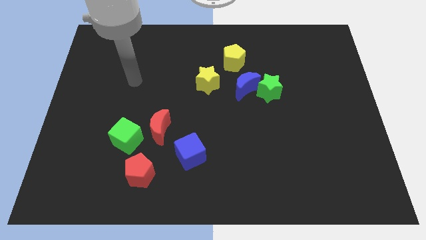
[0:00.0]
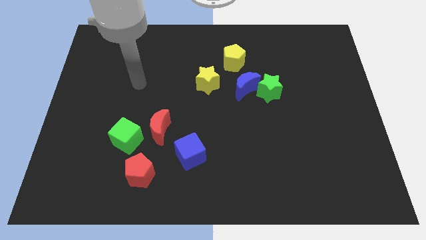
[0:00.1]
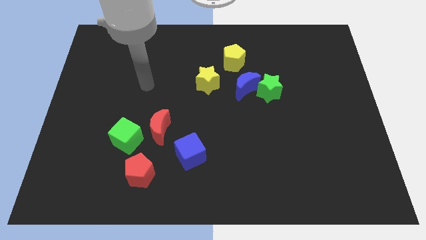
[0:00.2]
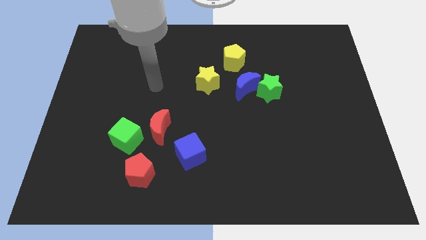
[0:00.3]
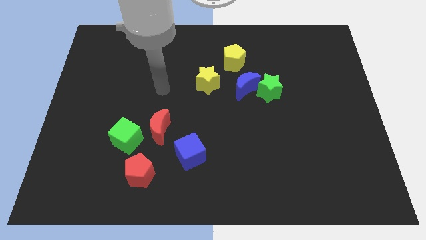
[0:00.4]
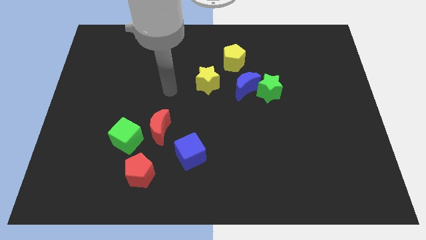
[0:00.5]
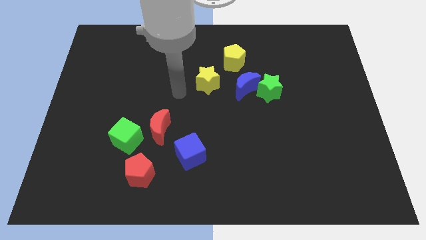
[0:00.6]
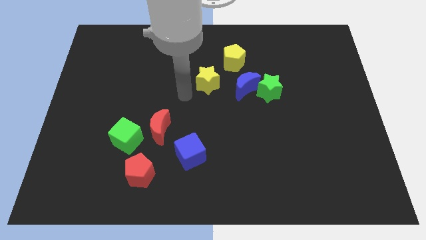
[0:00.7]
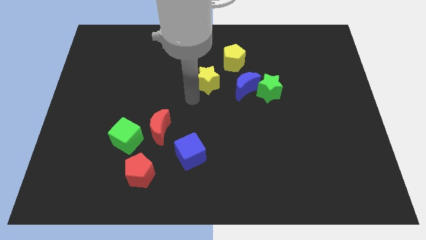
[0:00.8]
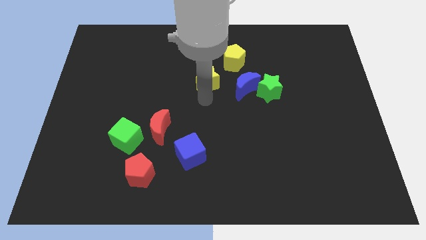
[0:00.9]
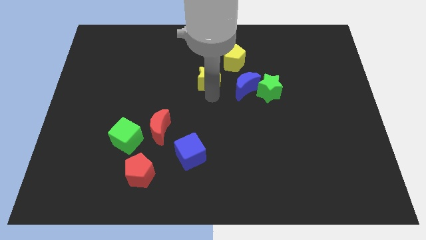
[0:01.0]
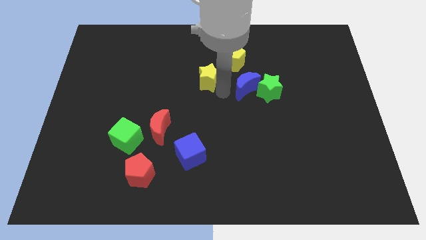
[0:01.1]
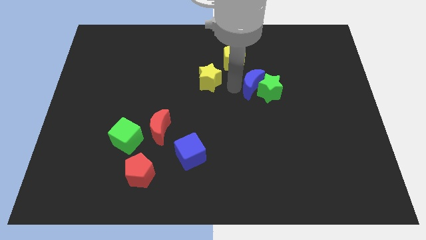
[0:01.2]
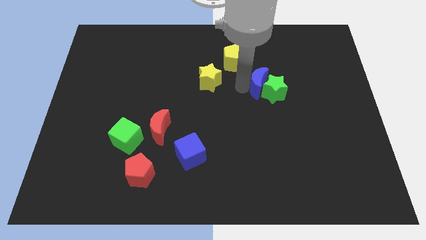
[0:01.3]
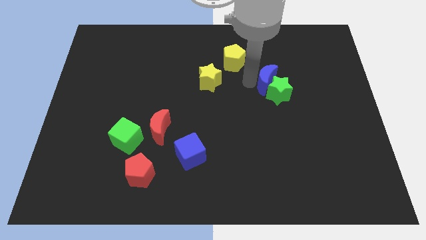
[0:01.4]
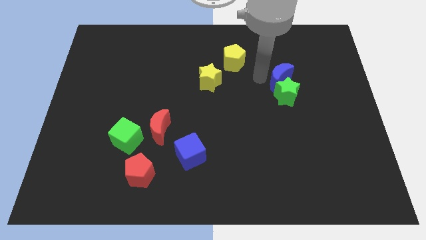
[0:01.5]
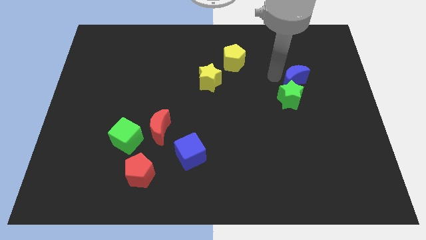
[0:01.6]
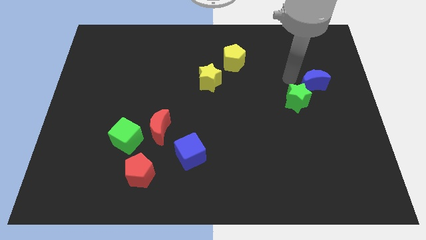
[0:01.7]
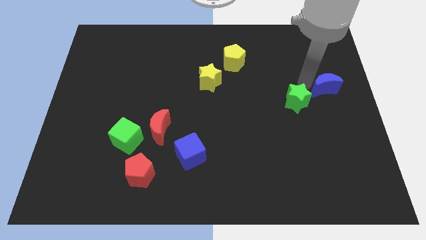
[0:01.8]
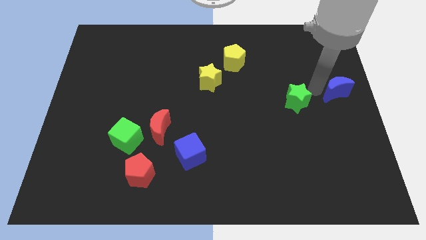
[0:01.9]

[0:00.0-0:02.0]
separate the green star from the blue moon

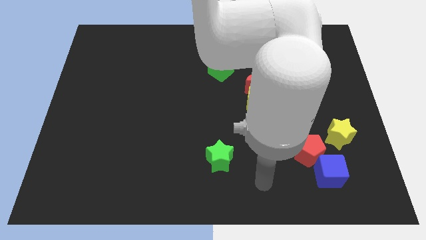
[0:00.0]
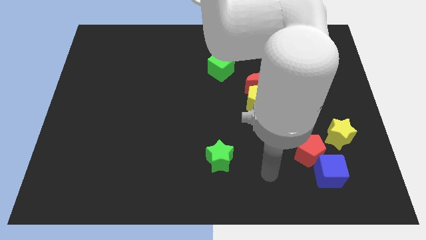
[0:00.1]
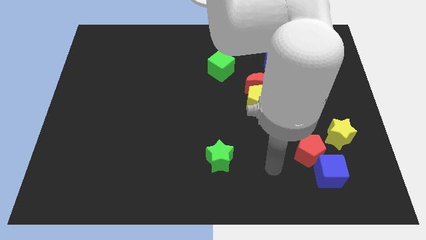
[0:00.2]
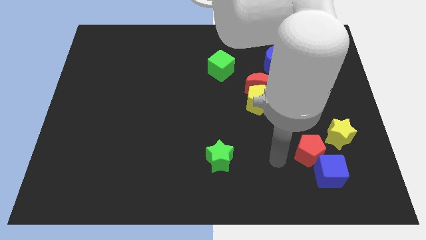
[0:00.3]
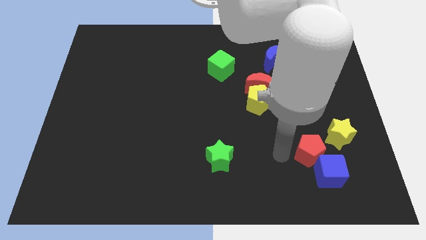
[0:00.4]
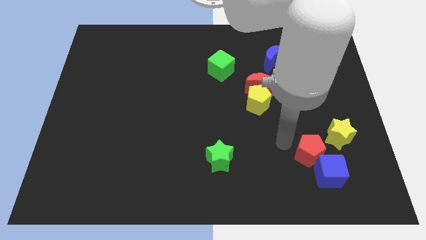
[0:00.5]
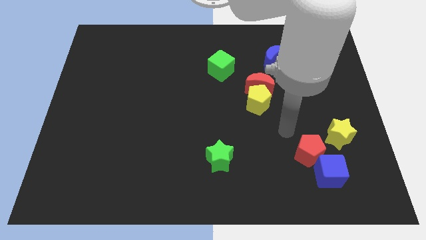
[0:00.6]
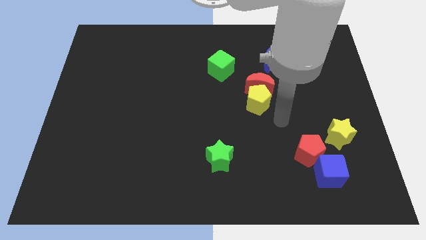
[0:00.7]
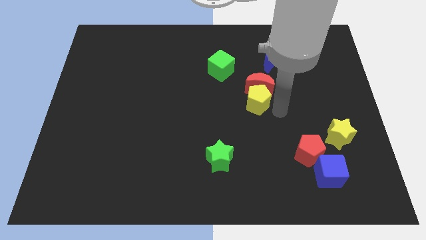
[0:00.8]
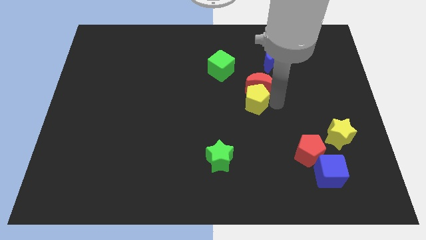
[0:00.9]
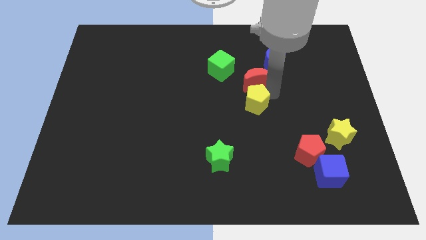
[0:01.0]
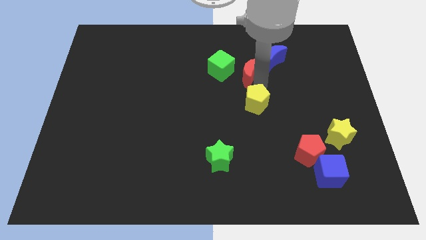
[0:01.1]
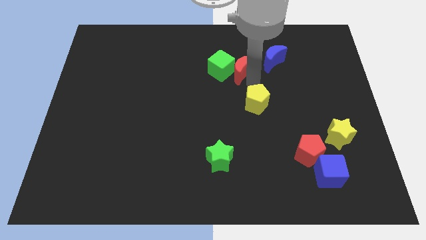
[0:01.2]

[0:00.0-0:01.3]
pull the yellow pentagon apart from the red moon

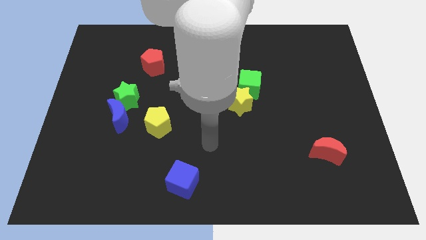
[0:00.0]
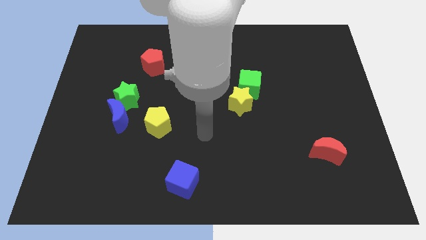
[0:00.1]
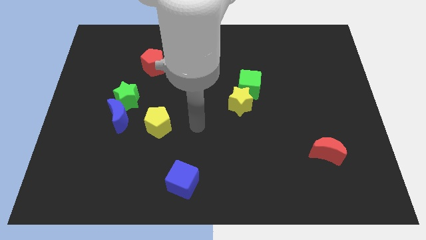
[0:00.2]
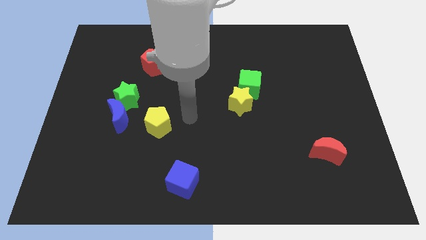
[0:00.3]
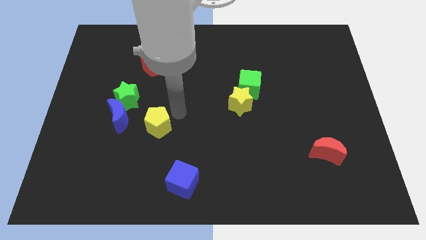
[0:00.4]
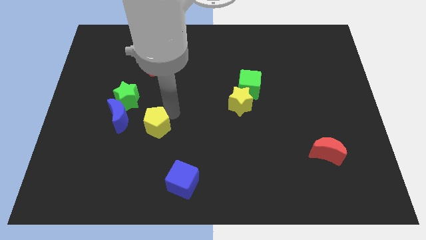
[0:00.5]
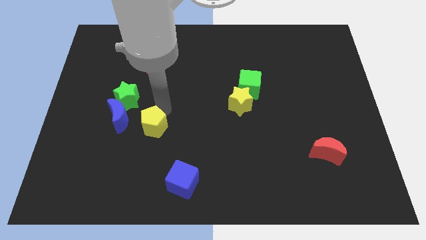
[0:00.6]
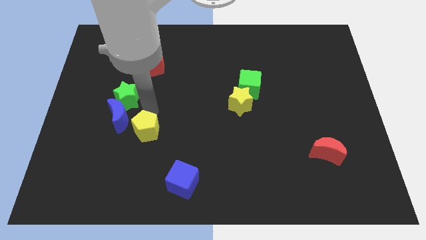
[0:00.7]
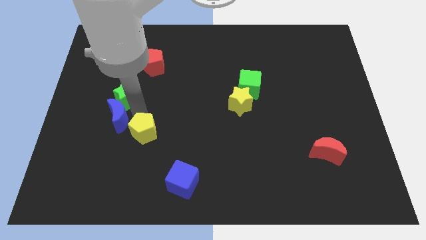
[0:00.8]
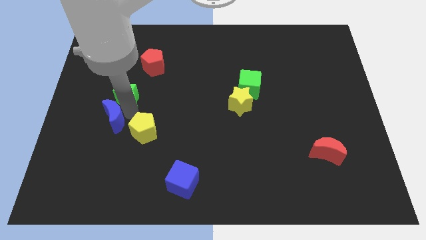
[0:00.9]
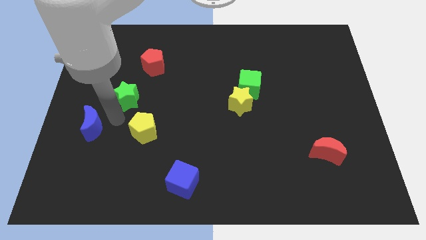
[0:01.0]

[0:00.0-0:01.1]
pull the green star apart from the blue moon

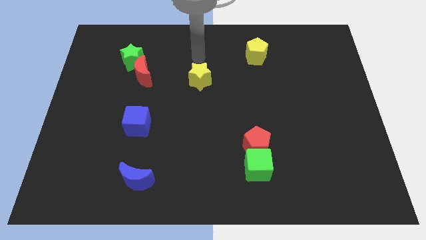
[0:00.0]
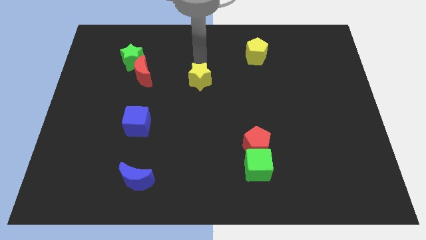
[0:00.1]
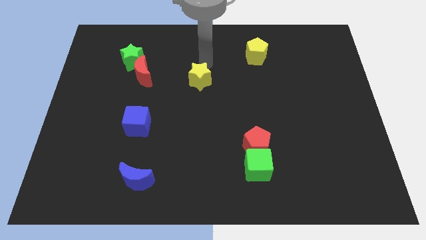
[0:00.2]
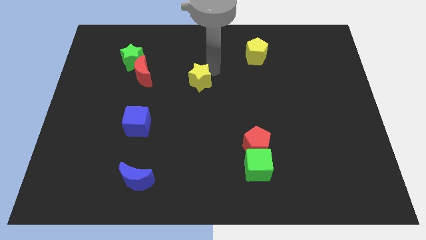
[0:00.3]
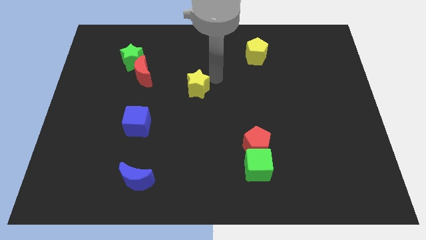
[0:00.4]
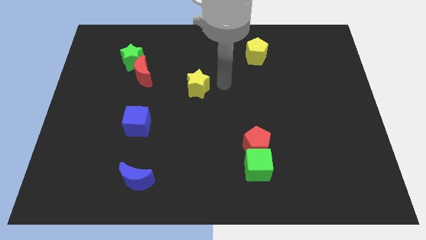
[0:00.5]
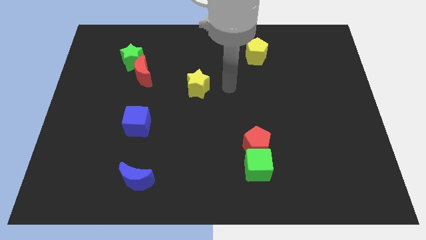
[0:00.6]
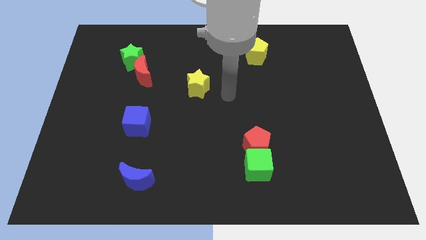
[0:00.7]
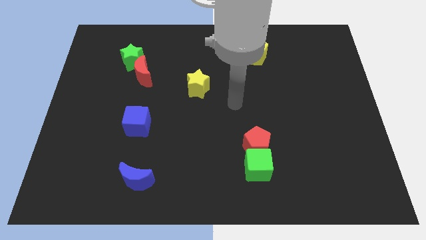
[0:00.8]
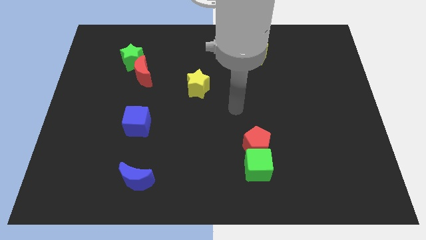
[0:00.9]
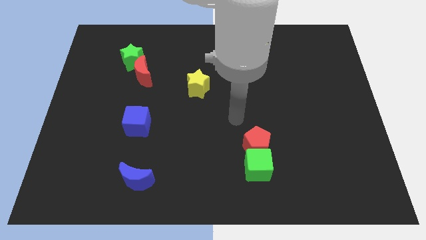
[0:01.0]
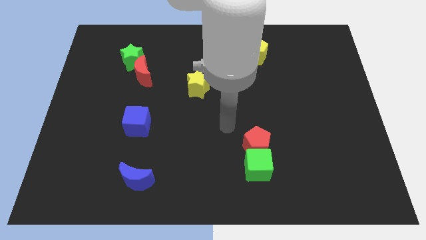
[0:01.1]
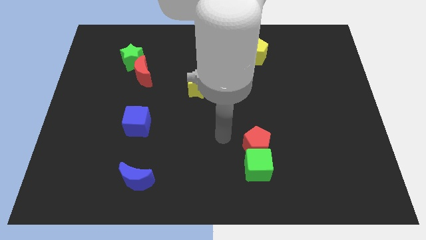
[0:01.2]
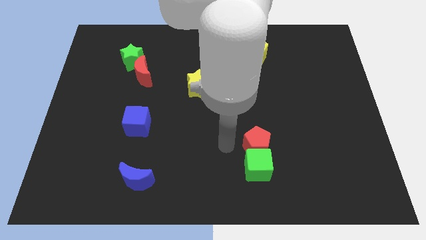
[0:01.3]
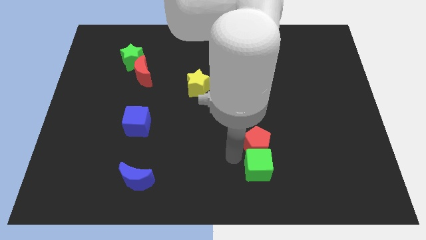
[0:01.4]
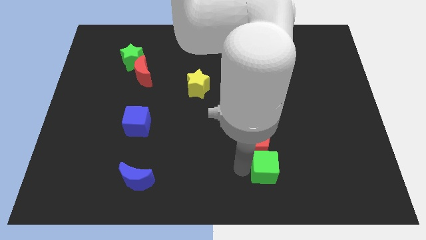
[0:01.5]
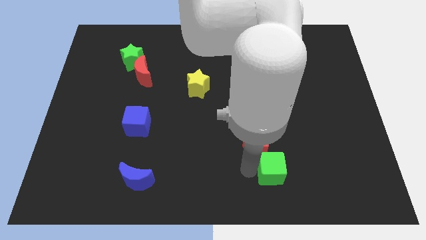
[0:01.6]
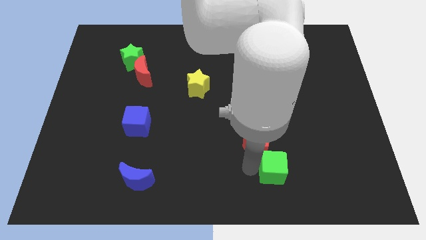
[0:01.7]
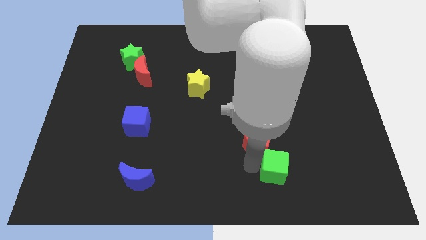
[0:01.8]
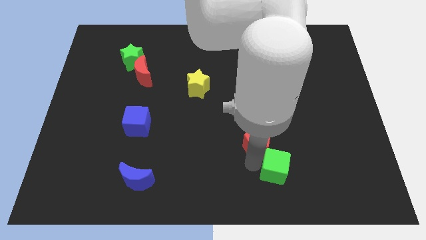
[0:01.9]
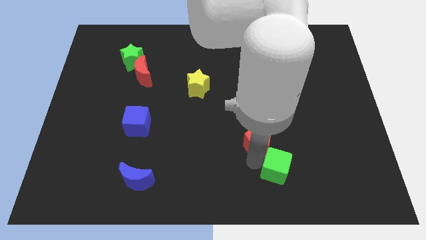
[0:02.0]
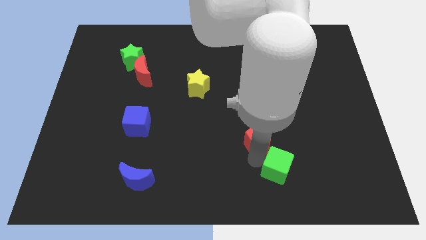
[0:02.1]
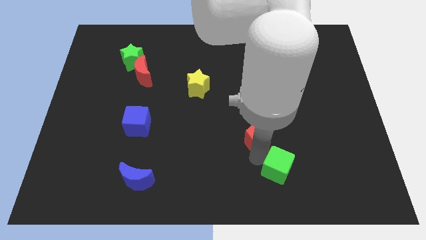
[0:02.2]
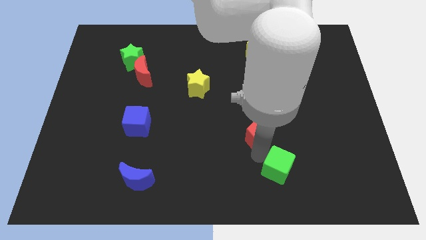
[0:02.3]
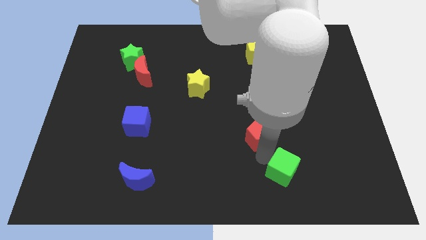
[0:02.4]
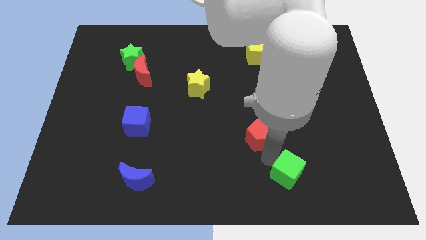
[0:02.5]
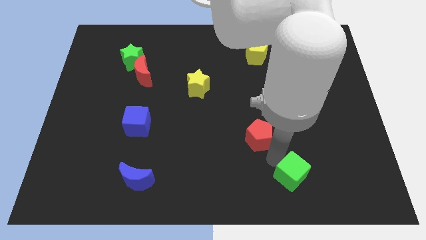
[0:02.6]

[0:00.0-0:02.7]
move the red pentagon away from the green cube

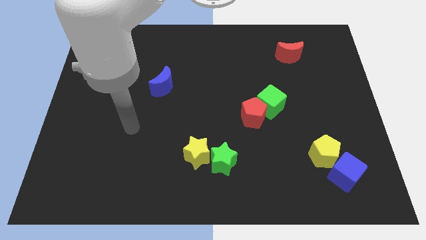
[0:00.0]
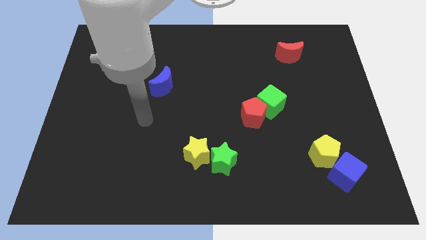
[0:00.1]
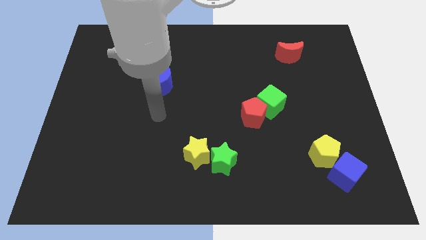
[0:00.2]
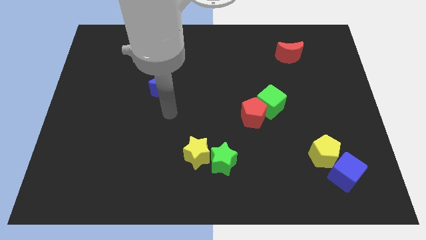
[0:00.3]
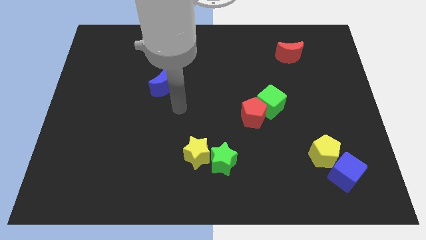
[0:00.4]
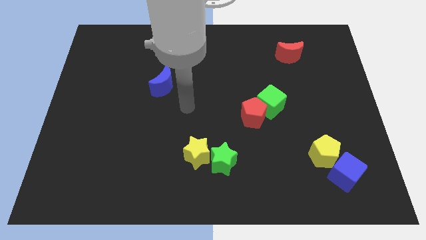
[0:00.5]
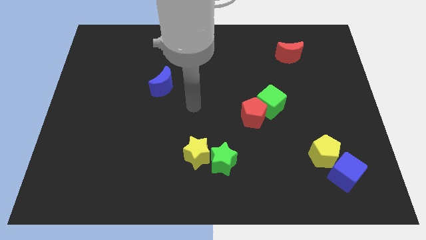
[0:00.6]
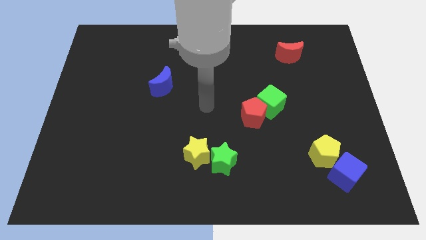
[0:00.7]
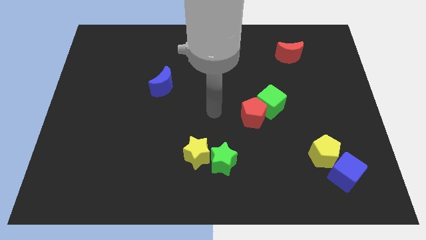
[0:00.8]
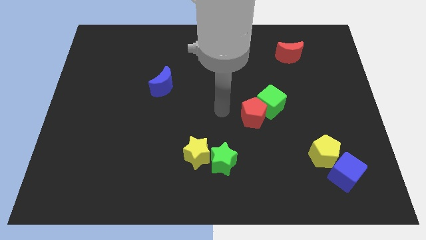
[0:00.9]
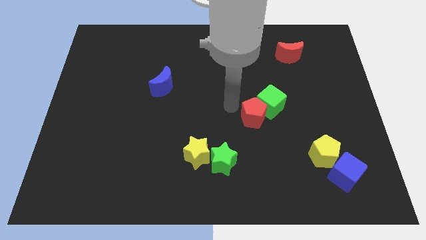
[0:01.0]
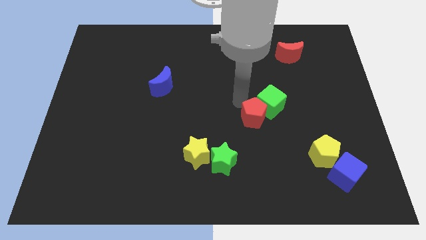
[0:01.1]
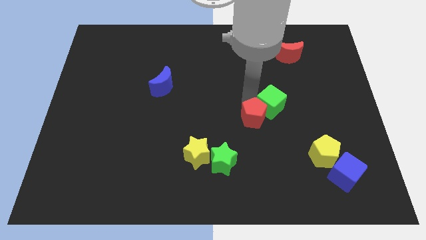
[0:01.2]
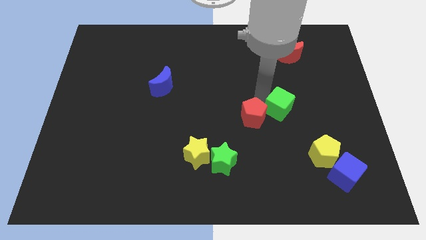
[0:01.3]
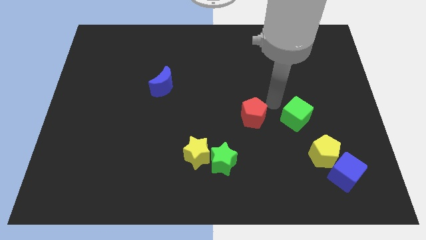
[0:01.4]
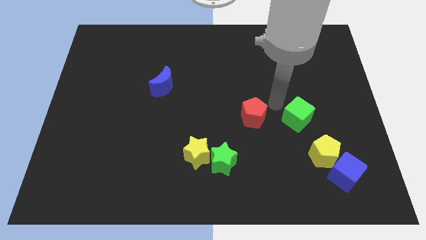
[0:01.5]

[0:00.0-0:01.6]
pull the red pentagon apart from the green cube

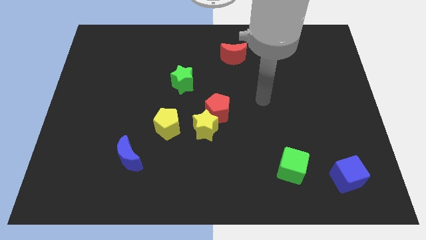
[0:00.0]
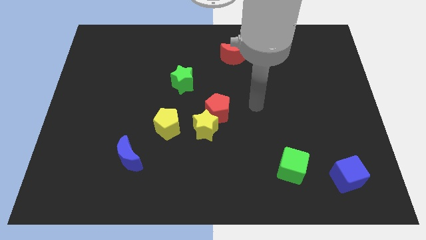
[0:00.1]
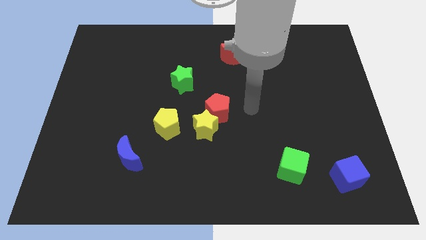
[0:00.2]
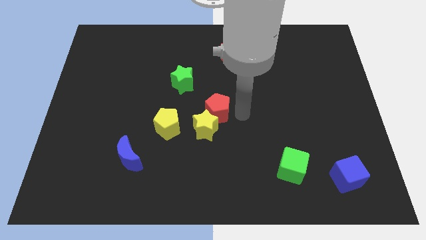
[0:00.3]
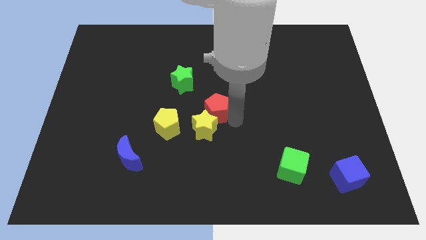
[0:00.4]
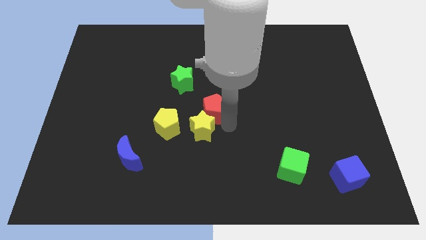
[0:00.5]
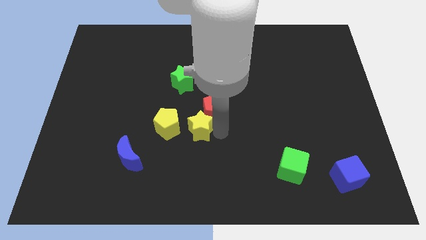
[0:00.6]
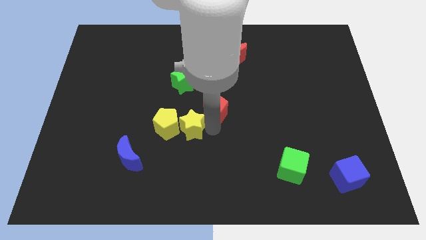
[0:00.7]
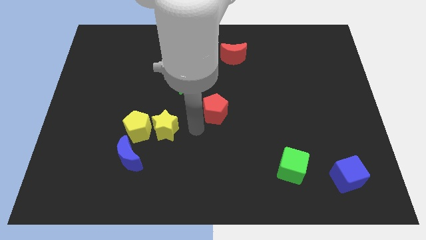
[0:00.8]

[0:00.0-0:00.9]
pull the red pentagon apart from the yellow star
